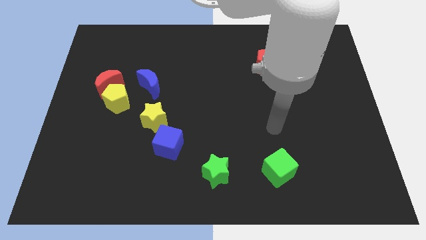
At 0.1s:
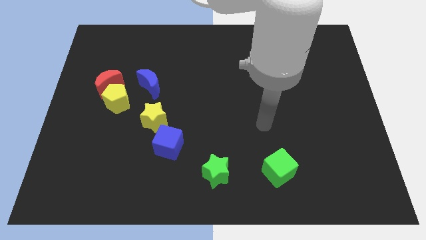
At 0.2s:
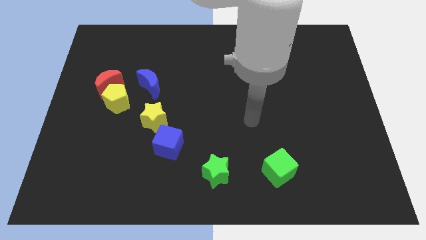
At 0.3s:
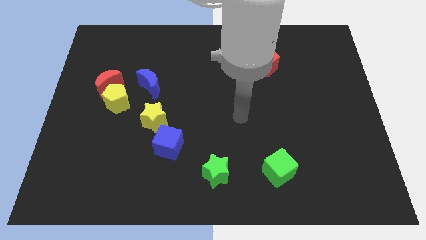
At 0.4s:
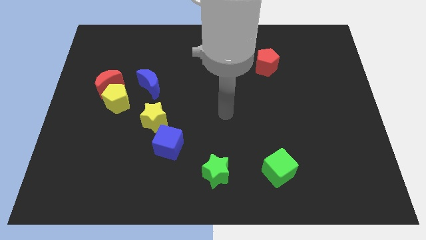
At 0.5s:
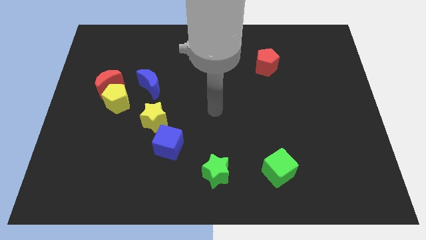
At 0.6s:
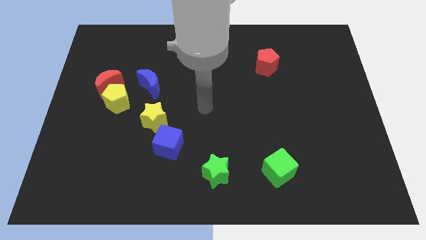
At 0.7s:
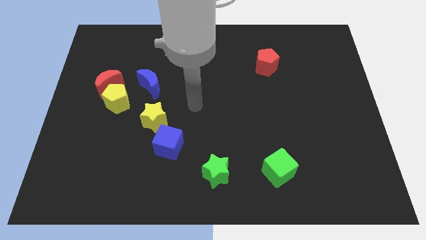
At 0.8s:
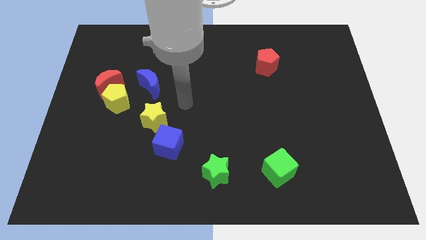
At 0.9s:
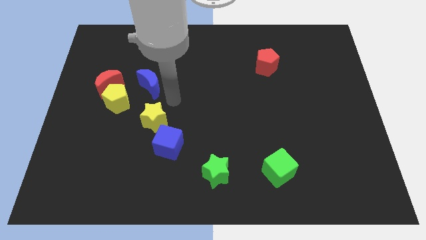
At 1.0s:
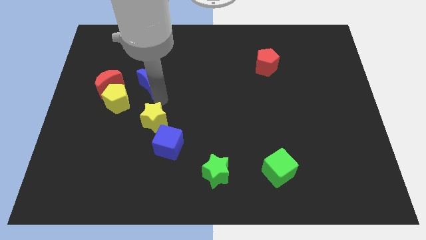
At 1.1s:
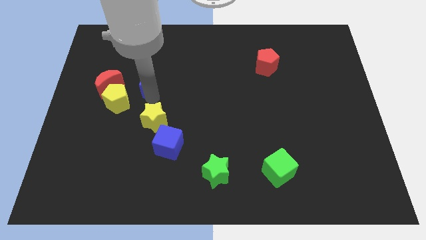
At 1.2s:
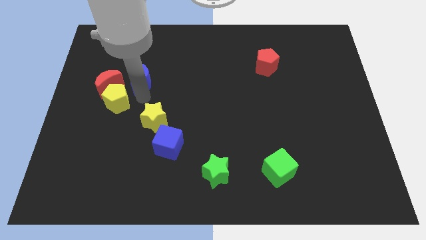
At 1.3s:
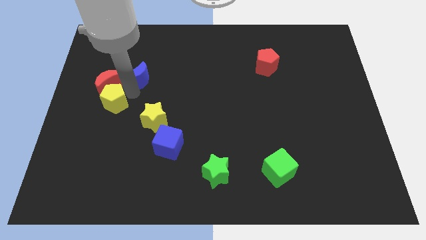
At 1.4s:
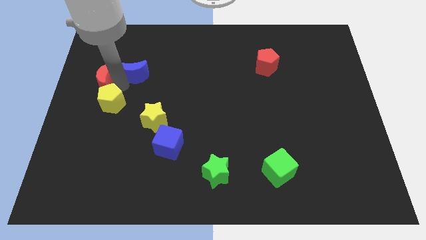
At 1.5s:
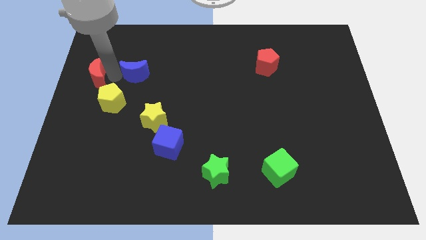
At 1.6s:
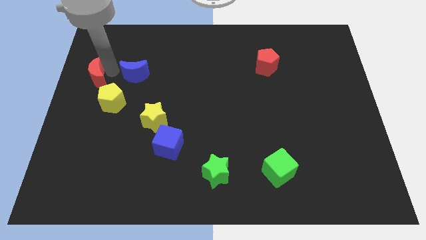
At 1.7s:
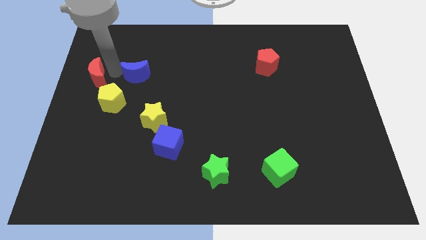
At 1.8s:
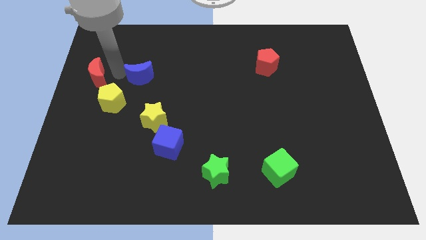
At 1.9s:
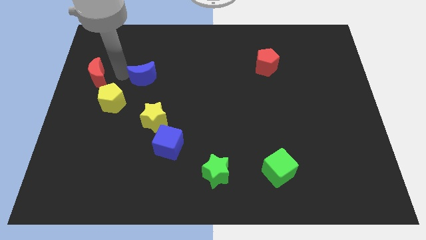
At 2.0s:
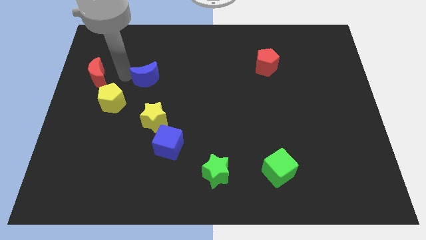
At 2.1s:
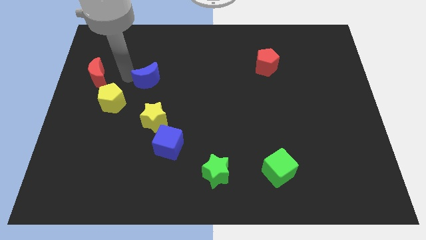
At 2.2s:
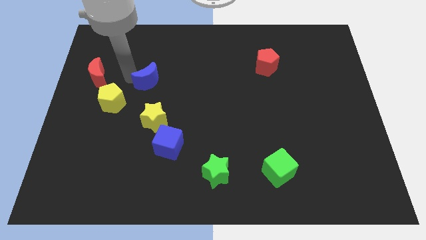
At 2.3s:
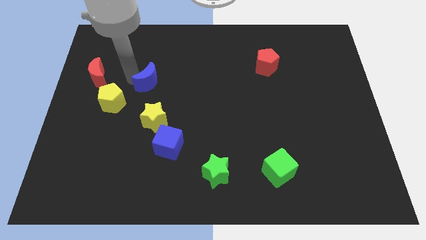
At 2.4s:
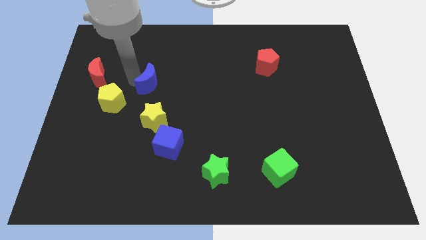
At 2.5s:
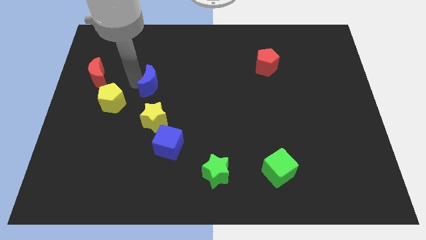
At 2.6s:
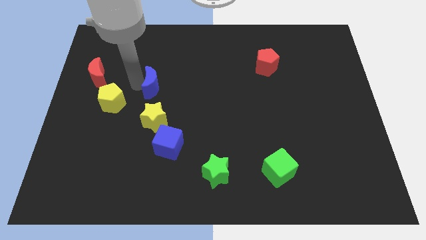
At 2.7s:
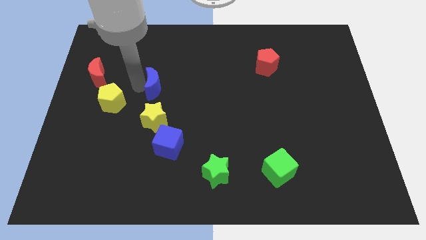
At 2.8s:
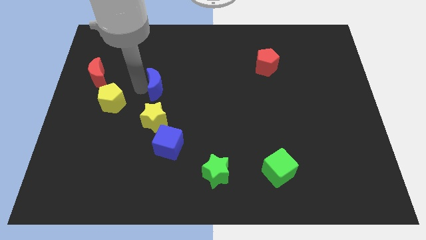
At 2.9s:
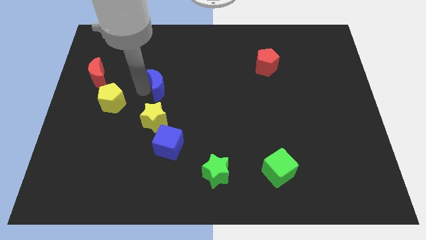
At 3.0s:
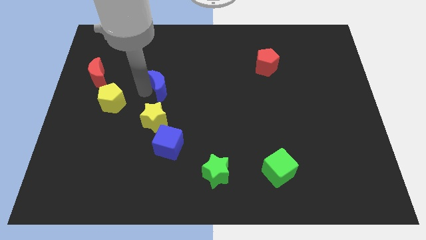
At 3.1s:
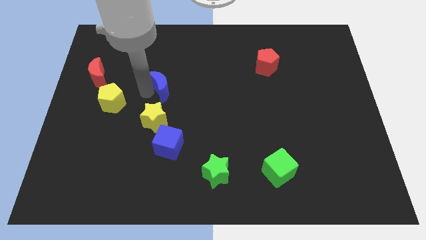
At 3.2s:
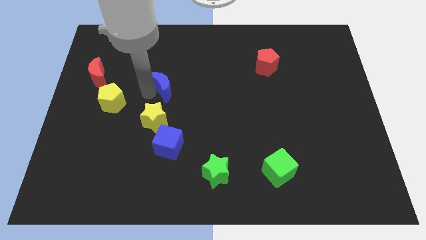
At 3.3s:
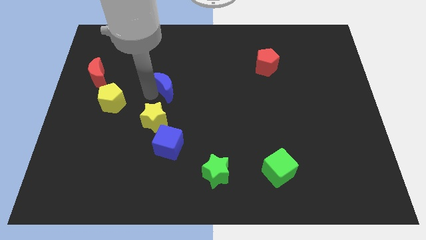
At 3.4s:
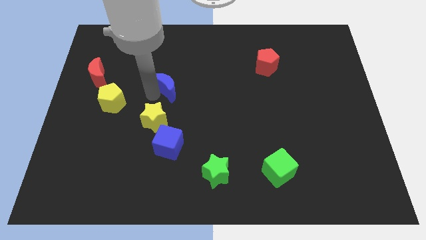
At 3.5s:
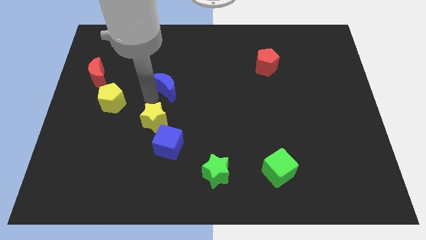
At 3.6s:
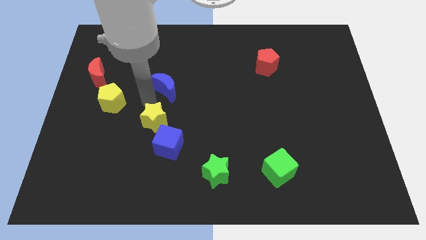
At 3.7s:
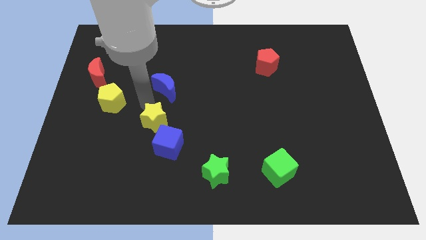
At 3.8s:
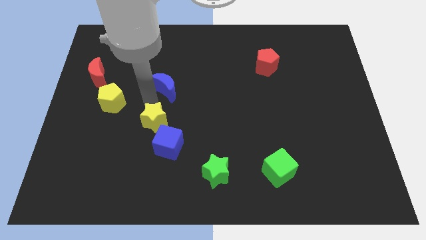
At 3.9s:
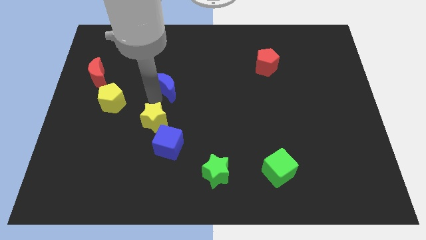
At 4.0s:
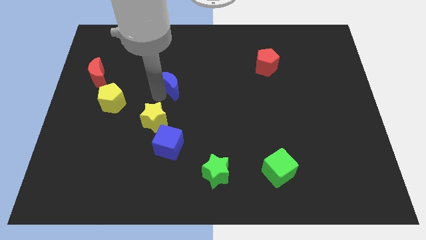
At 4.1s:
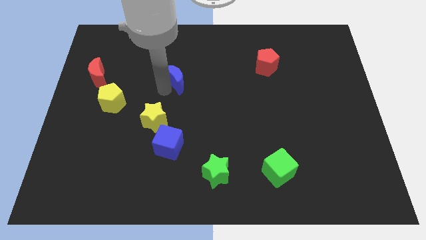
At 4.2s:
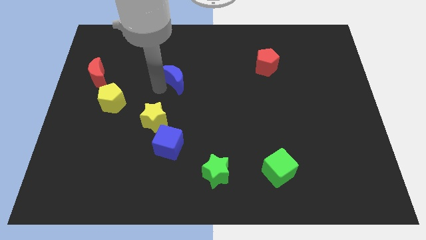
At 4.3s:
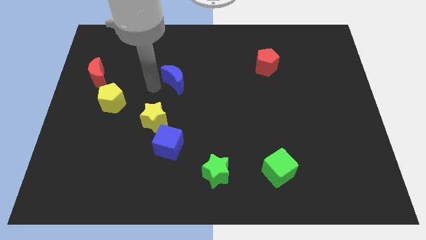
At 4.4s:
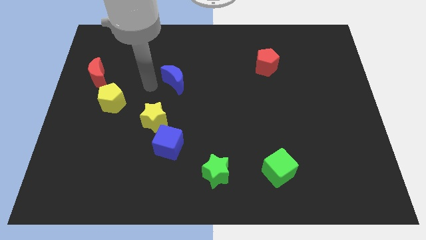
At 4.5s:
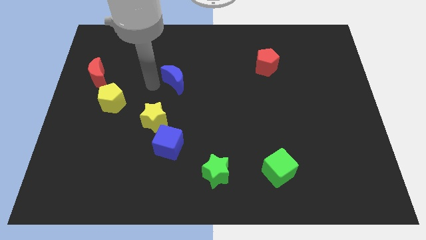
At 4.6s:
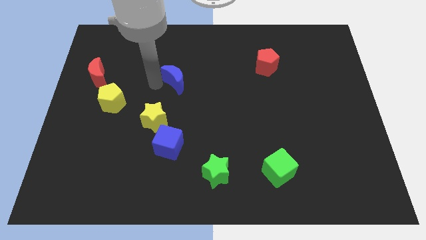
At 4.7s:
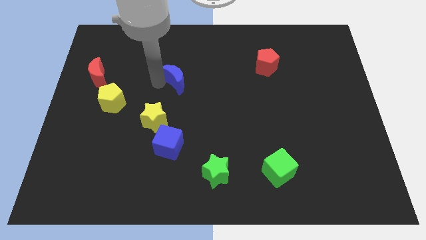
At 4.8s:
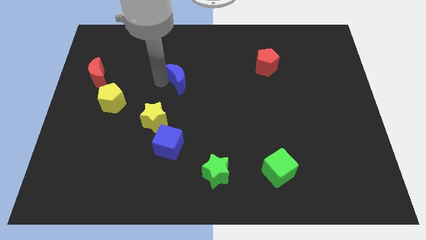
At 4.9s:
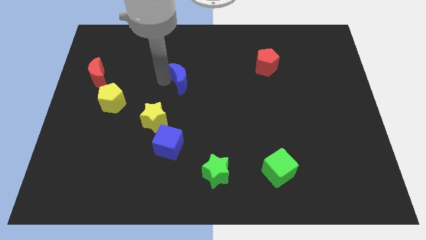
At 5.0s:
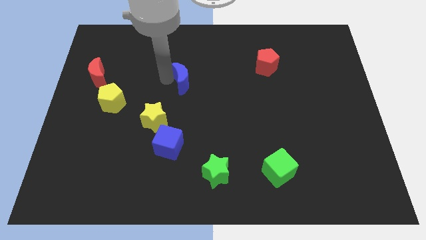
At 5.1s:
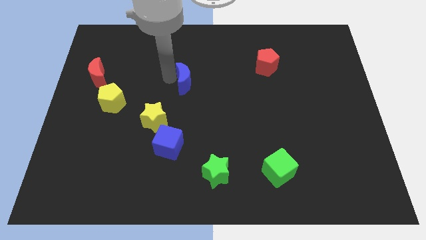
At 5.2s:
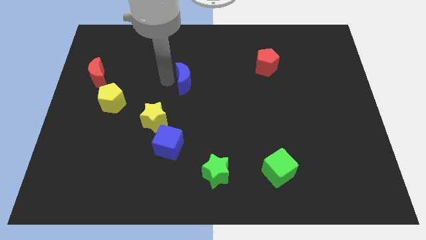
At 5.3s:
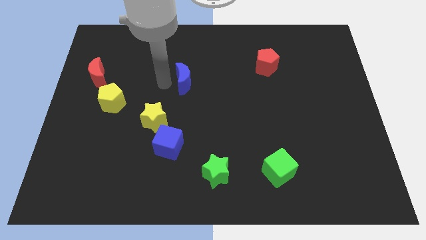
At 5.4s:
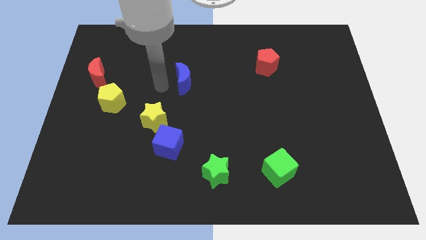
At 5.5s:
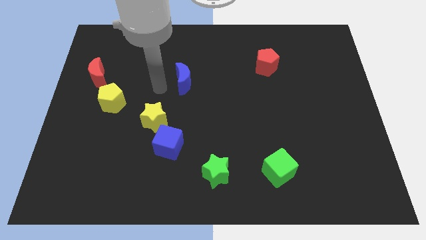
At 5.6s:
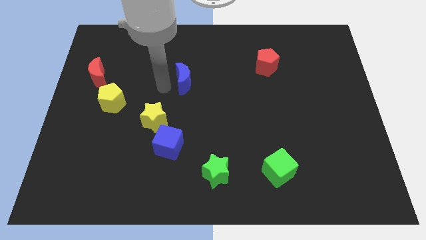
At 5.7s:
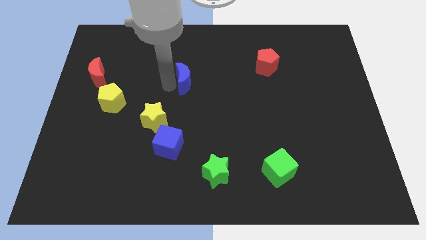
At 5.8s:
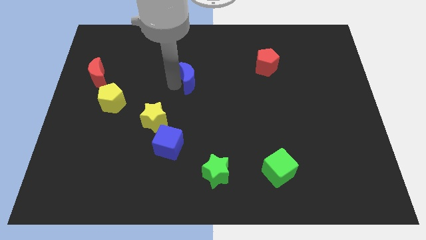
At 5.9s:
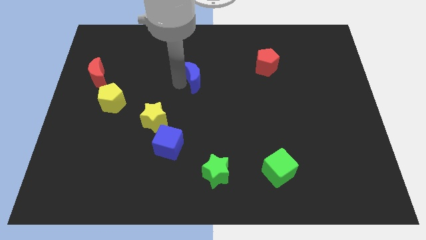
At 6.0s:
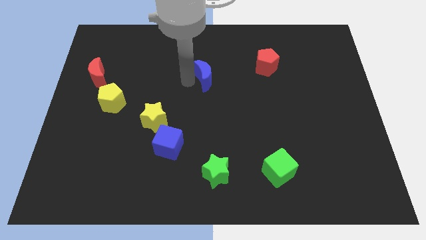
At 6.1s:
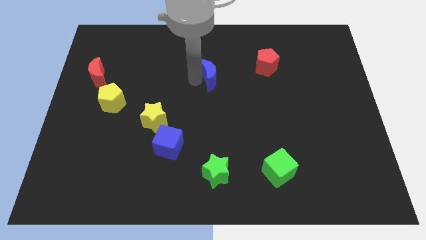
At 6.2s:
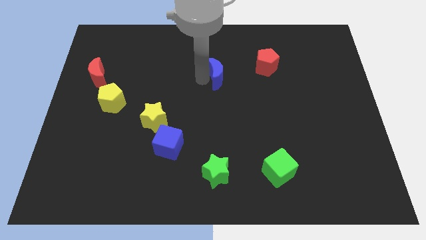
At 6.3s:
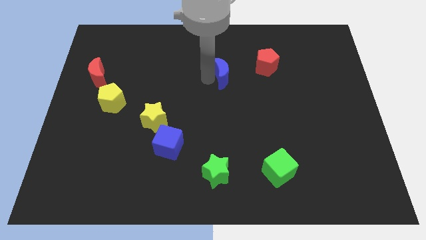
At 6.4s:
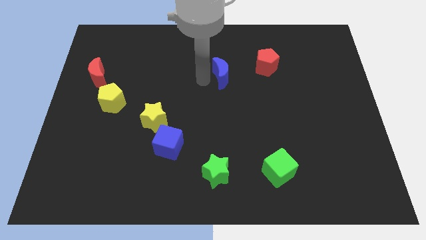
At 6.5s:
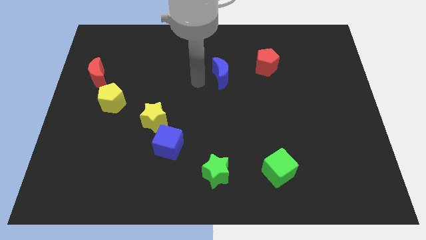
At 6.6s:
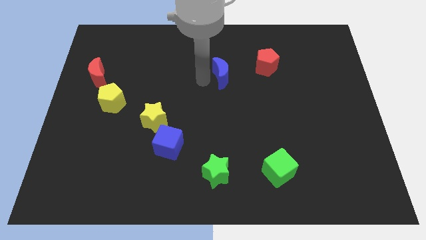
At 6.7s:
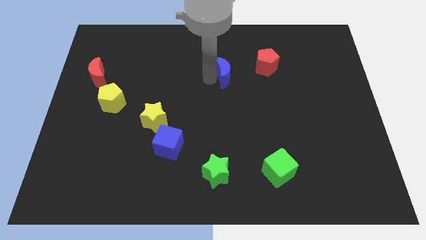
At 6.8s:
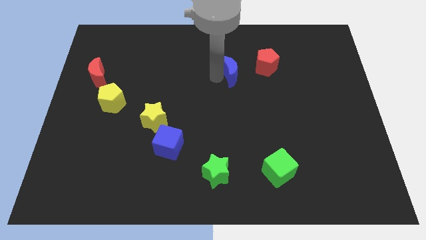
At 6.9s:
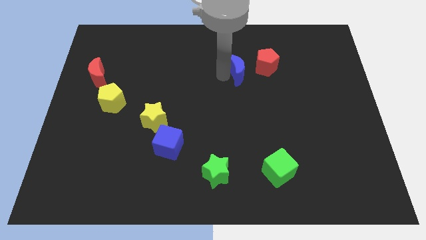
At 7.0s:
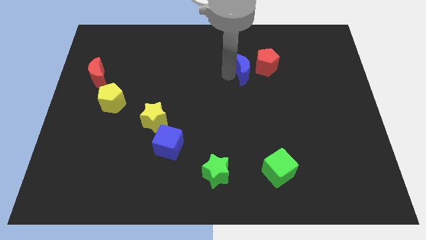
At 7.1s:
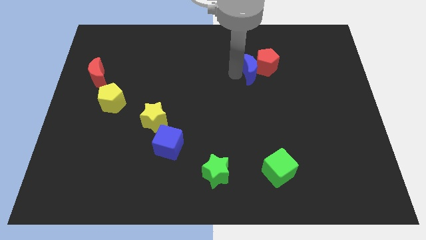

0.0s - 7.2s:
move the blue moon towards the red pentagon

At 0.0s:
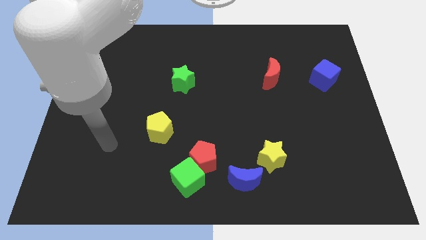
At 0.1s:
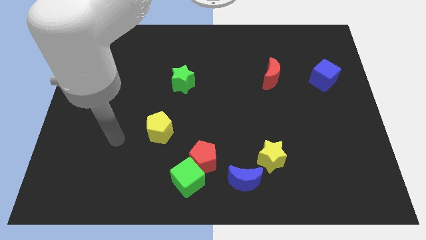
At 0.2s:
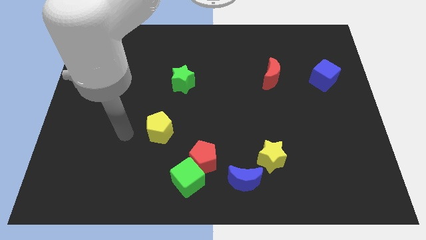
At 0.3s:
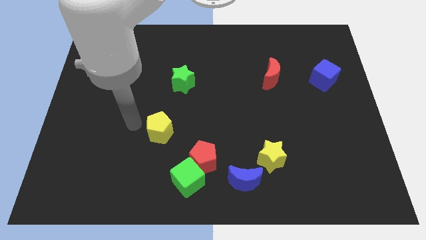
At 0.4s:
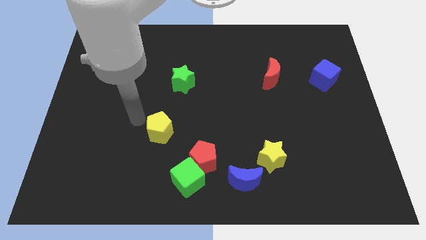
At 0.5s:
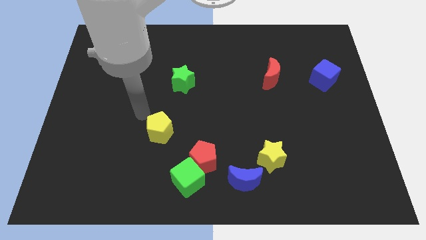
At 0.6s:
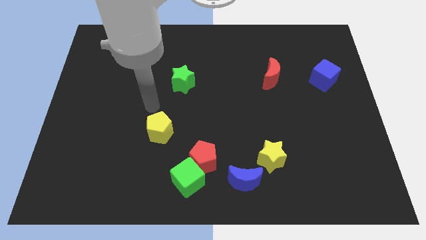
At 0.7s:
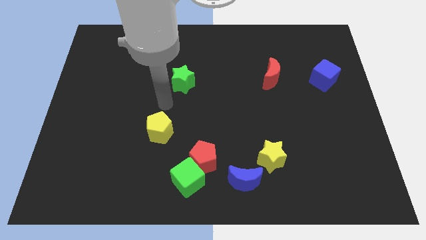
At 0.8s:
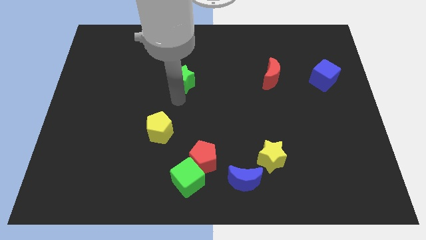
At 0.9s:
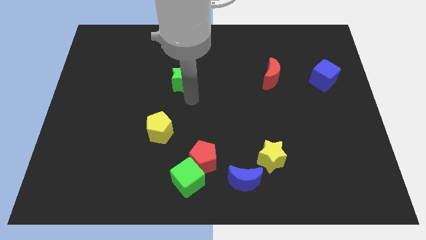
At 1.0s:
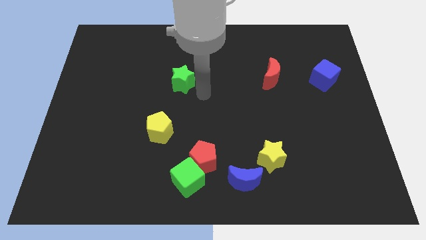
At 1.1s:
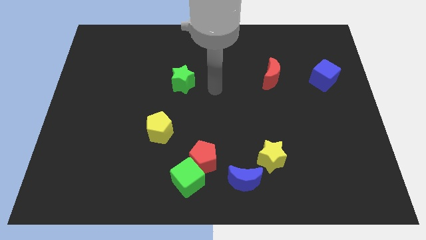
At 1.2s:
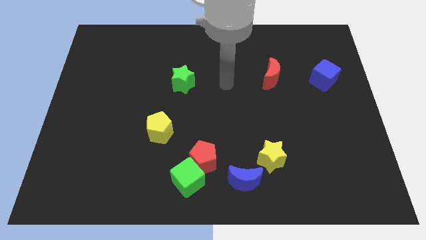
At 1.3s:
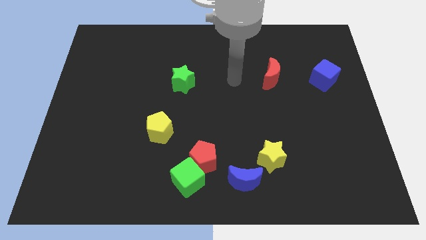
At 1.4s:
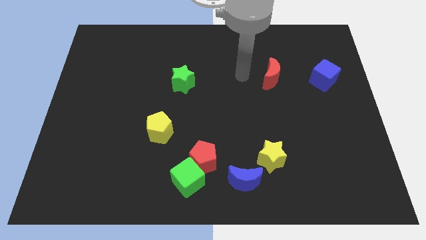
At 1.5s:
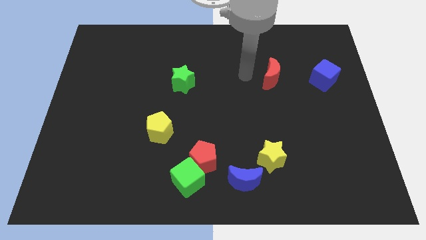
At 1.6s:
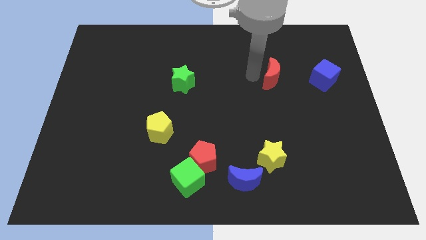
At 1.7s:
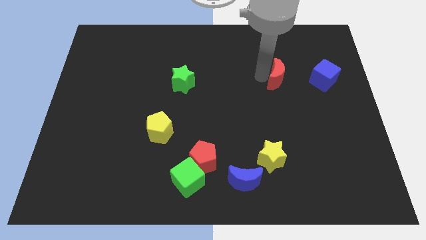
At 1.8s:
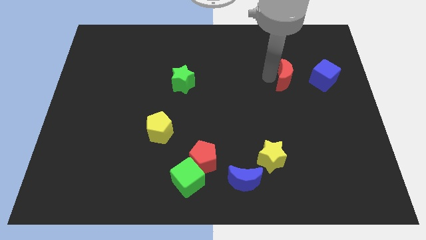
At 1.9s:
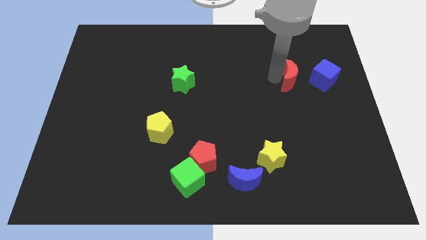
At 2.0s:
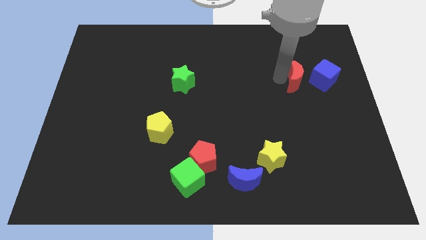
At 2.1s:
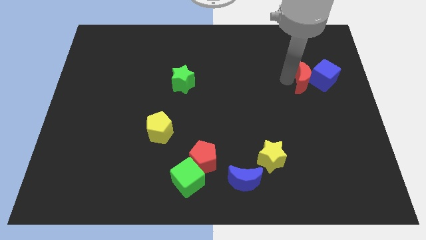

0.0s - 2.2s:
slide the red moon to the blue cube
